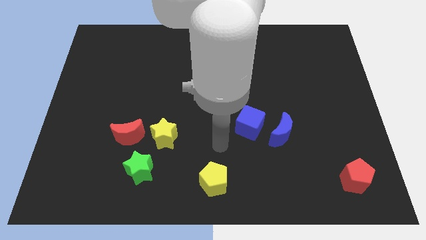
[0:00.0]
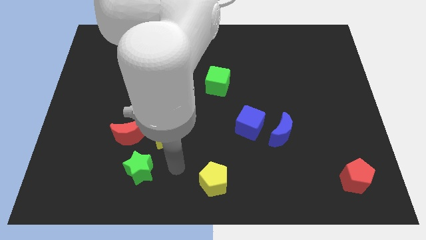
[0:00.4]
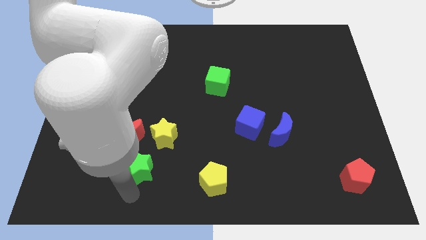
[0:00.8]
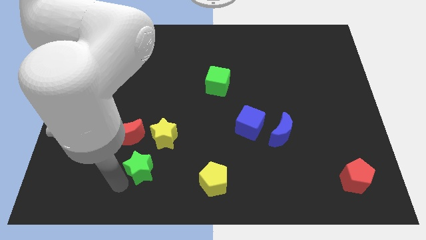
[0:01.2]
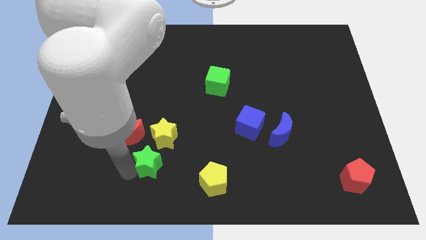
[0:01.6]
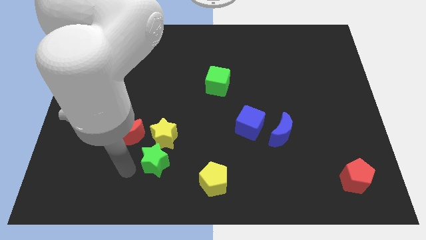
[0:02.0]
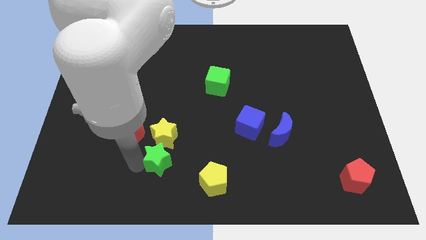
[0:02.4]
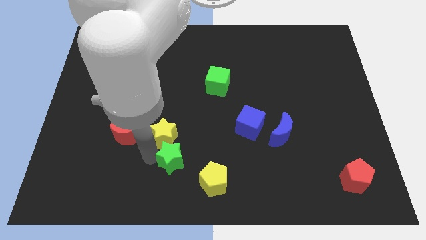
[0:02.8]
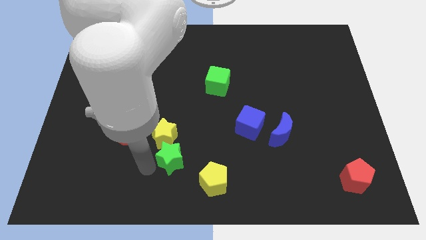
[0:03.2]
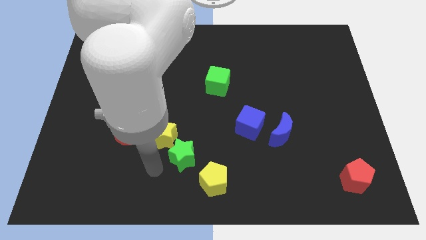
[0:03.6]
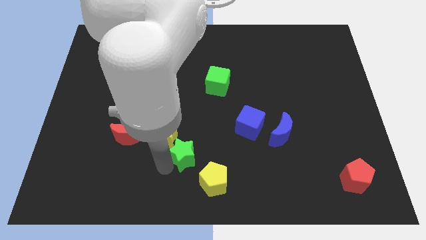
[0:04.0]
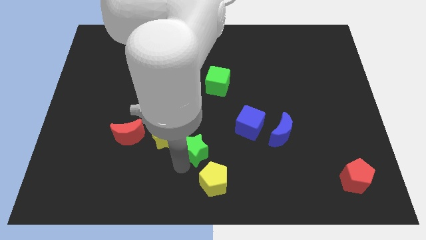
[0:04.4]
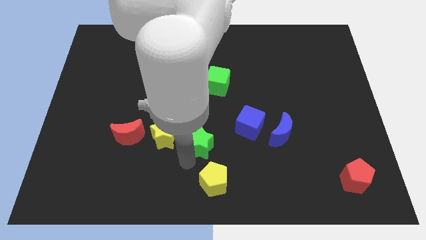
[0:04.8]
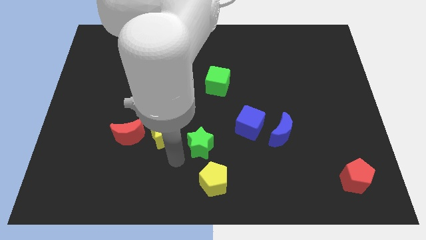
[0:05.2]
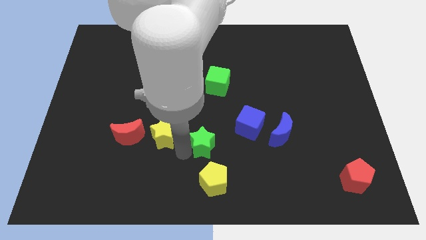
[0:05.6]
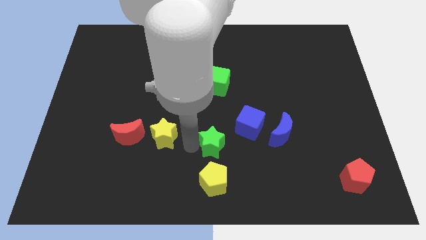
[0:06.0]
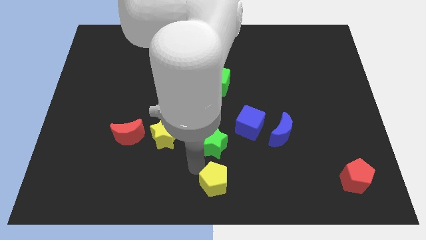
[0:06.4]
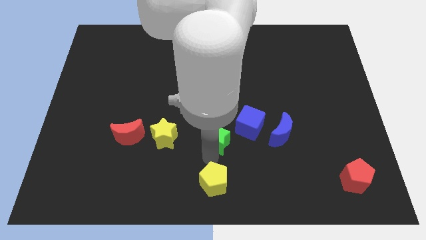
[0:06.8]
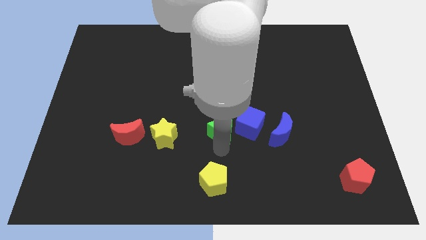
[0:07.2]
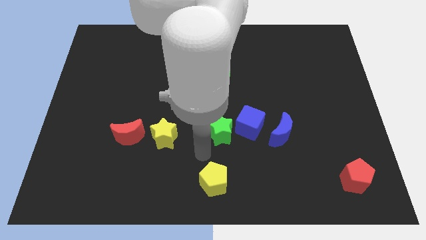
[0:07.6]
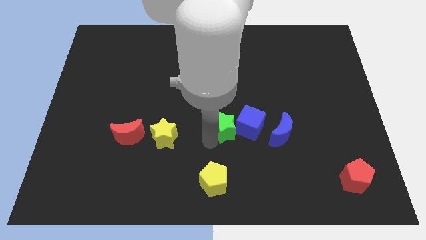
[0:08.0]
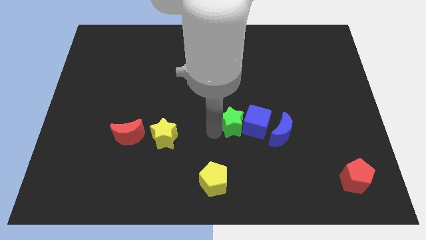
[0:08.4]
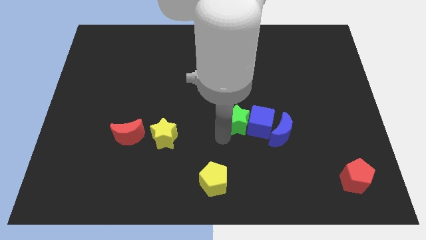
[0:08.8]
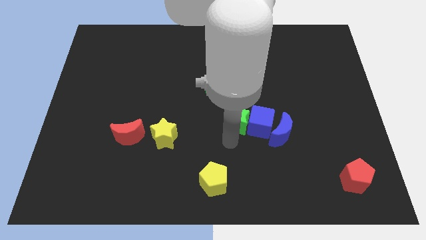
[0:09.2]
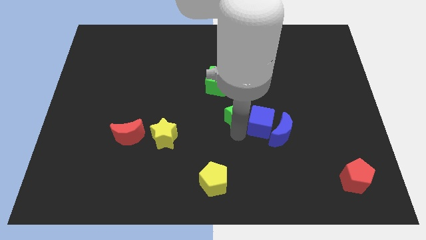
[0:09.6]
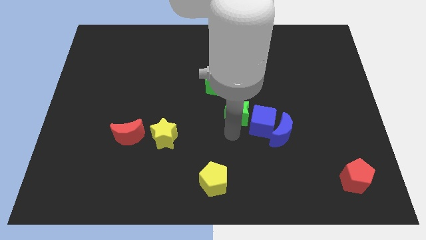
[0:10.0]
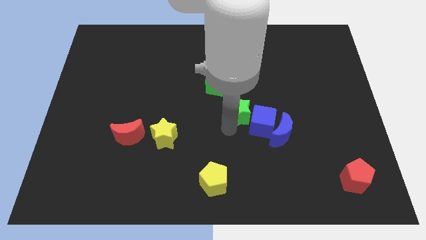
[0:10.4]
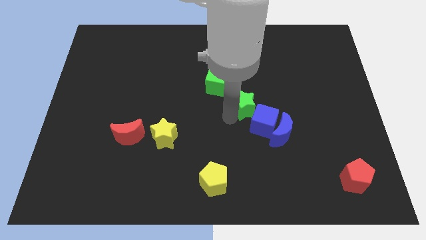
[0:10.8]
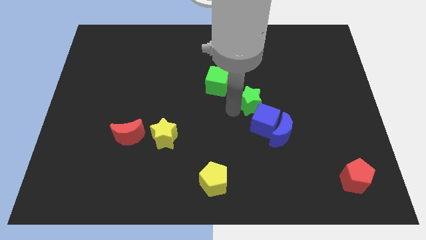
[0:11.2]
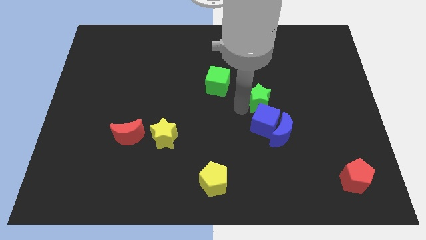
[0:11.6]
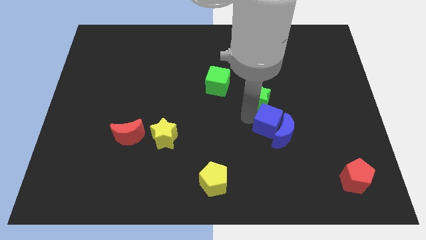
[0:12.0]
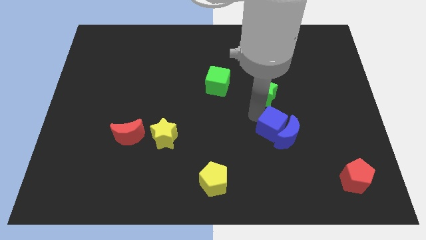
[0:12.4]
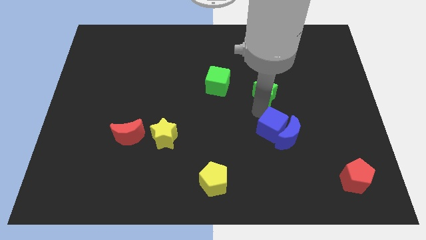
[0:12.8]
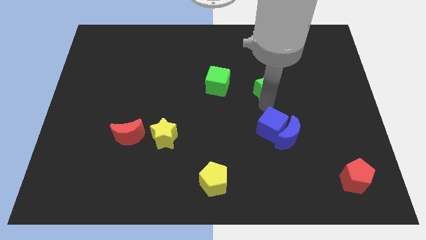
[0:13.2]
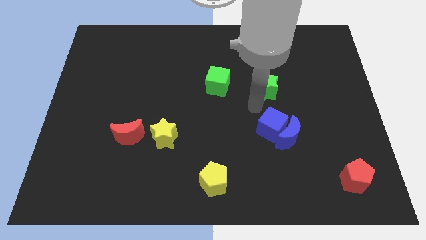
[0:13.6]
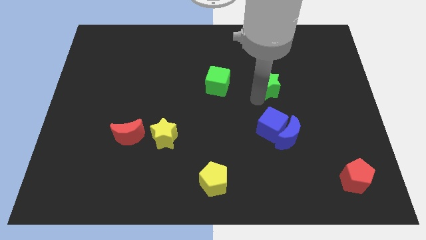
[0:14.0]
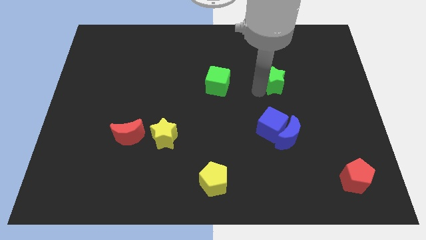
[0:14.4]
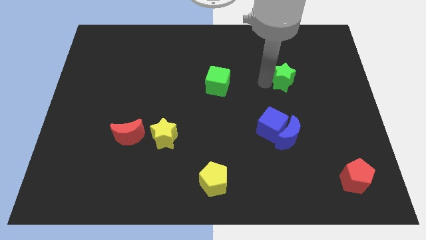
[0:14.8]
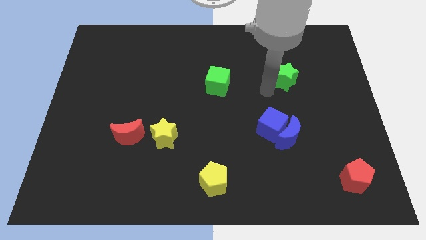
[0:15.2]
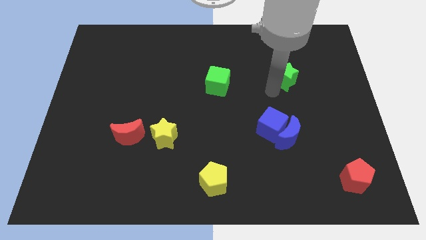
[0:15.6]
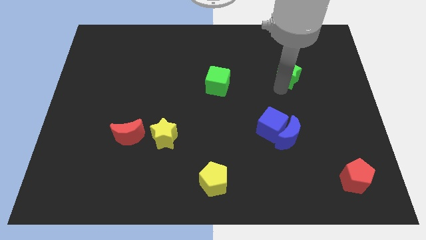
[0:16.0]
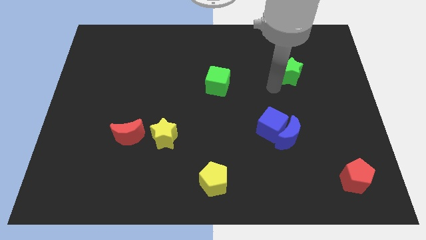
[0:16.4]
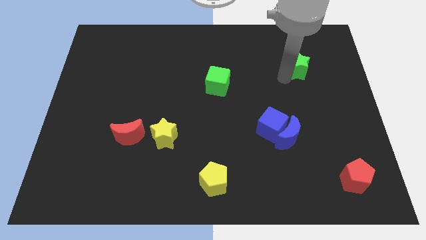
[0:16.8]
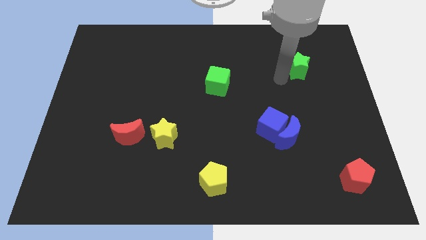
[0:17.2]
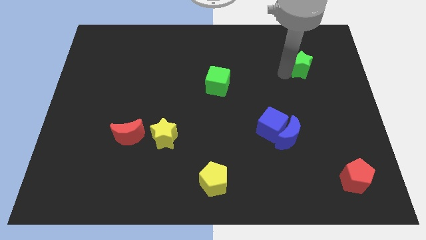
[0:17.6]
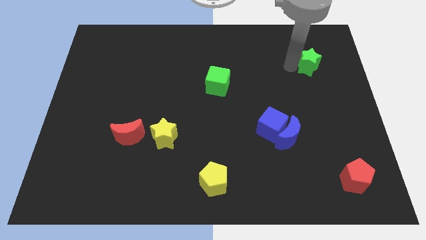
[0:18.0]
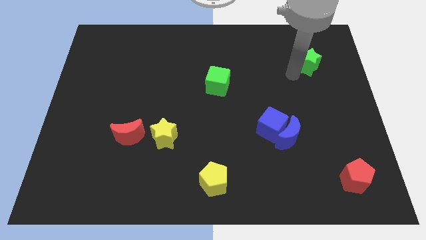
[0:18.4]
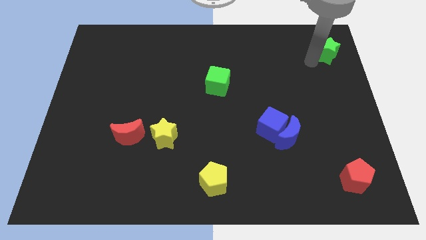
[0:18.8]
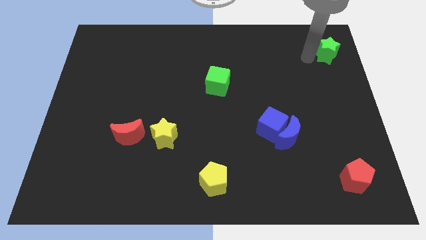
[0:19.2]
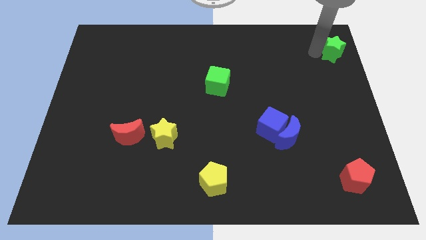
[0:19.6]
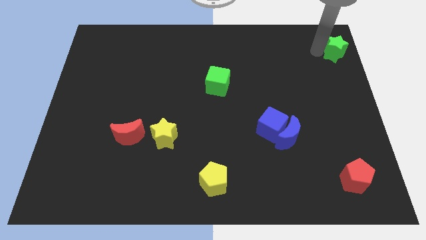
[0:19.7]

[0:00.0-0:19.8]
move the green star to the top right of the board
